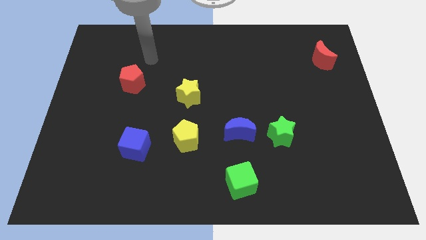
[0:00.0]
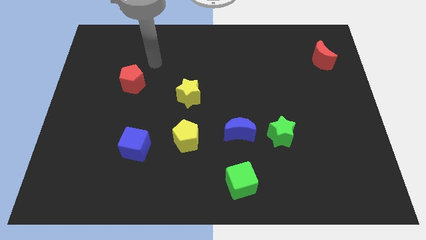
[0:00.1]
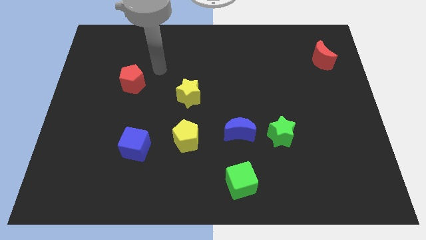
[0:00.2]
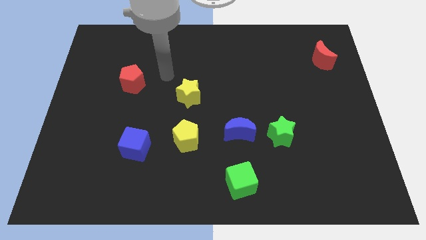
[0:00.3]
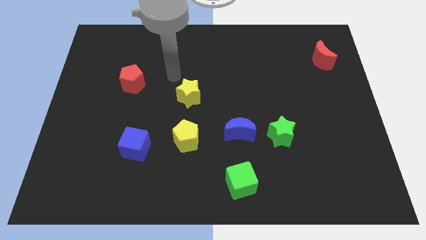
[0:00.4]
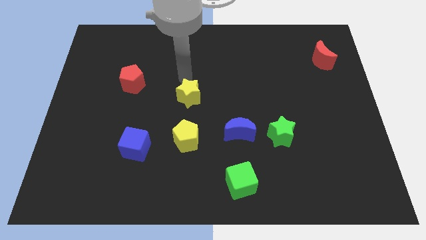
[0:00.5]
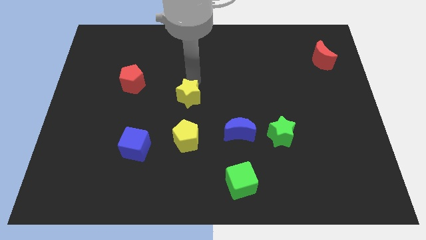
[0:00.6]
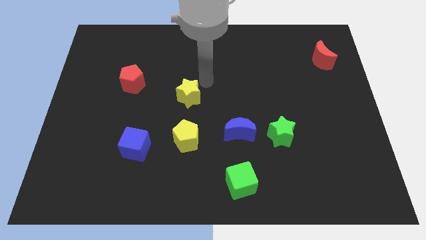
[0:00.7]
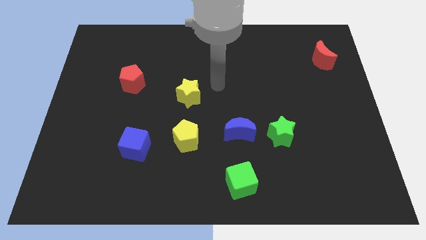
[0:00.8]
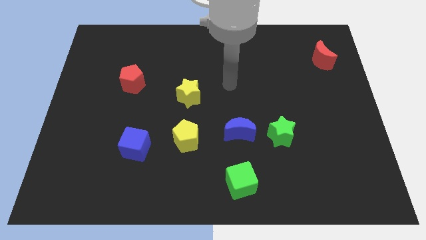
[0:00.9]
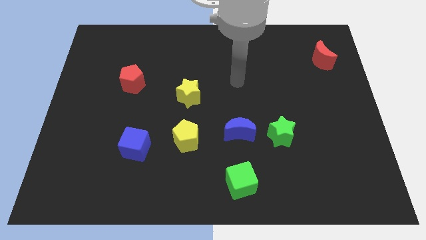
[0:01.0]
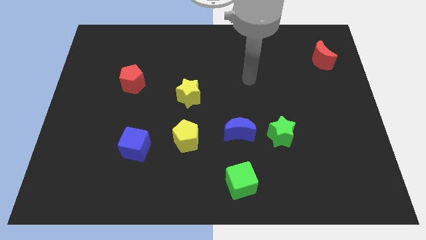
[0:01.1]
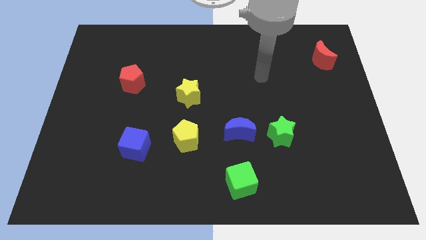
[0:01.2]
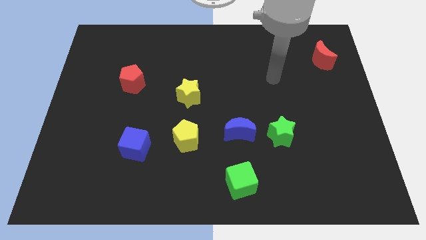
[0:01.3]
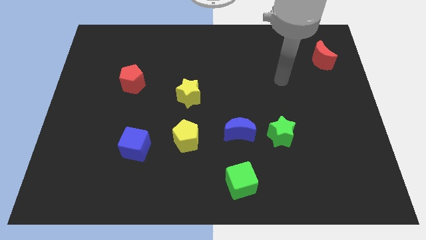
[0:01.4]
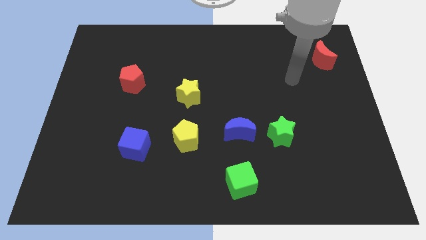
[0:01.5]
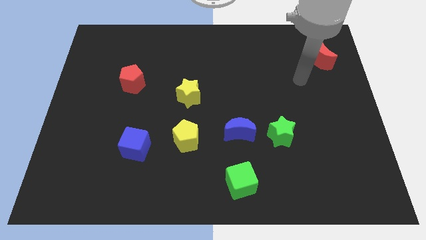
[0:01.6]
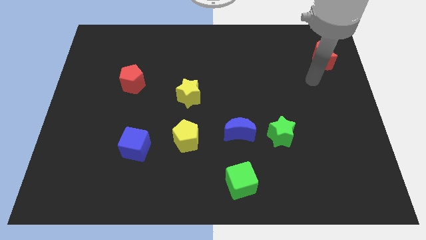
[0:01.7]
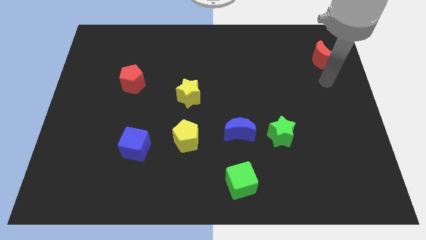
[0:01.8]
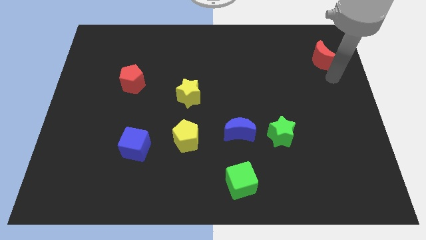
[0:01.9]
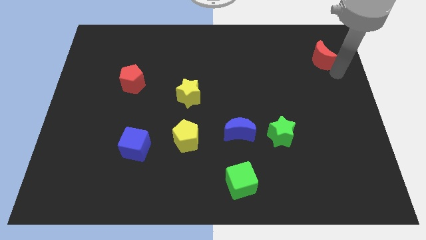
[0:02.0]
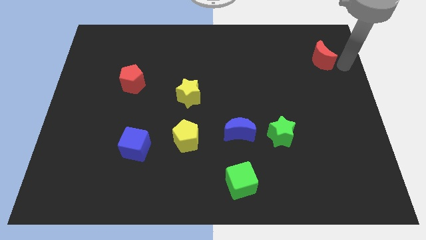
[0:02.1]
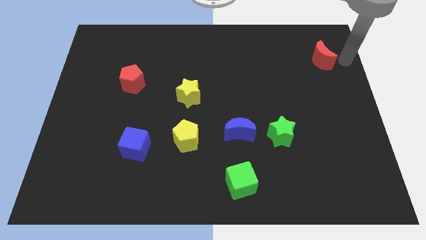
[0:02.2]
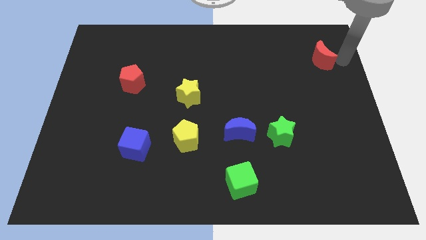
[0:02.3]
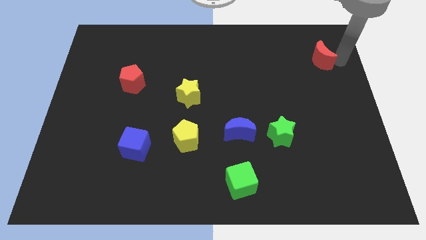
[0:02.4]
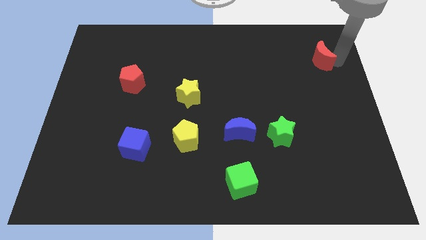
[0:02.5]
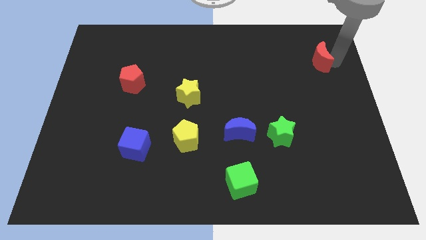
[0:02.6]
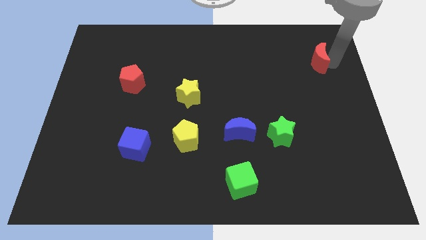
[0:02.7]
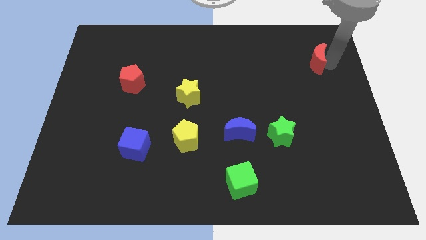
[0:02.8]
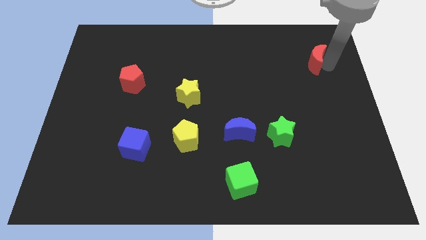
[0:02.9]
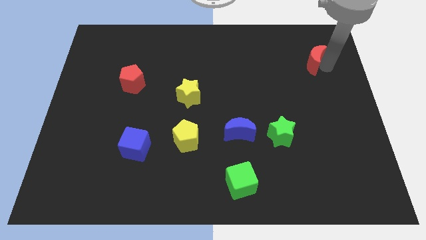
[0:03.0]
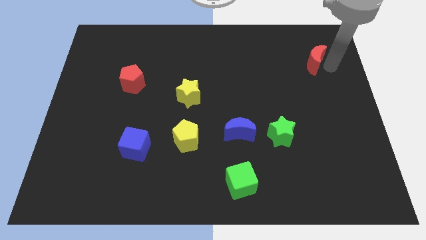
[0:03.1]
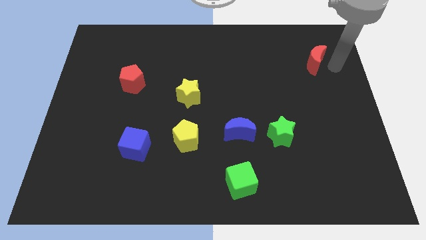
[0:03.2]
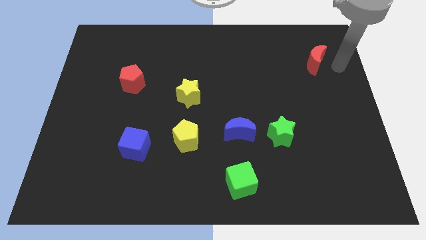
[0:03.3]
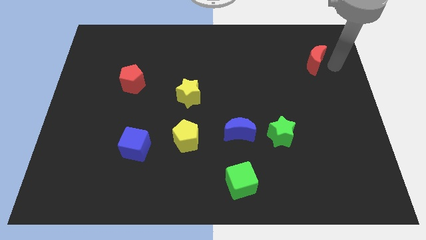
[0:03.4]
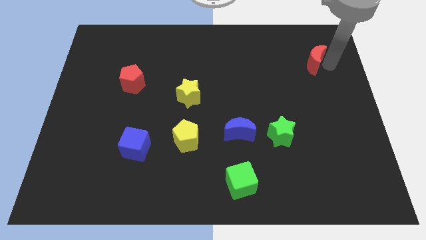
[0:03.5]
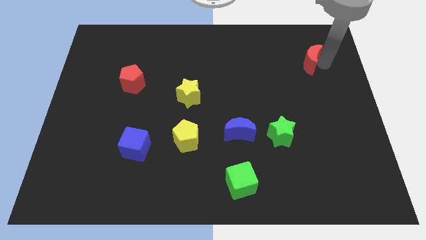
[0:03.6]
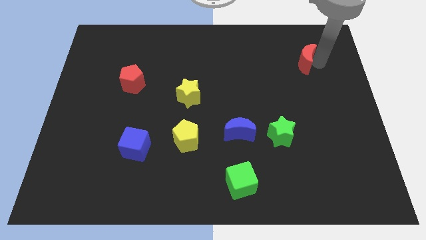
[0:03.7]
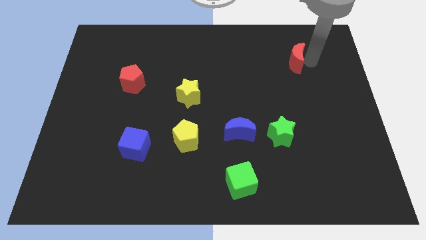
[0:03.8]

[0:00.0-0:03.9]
slightly slide the red moon to the left

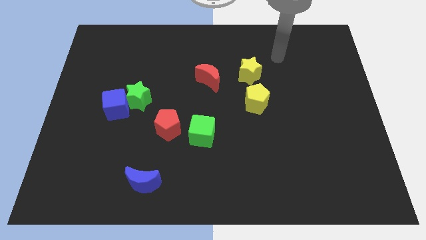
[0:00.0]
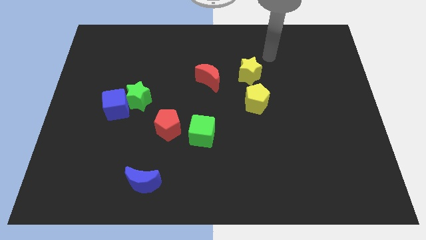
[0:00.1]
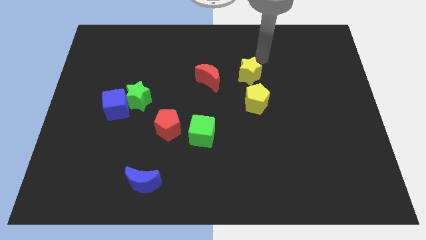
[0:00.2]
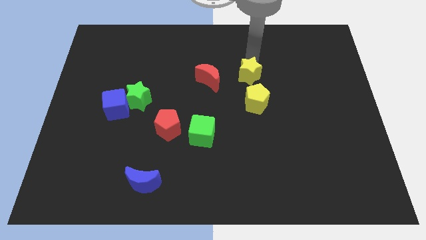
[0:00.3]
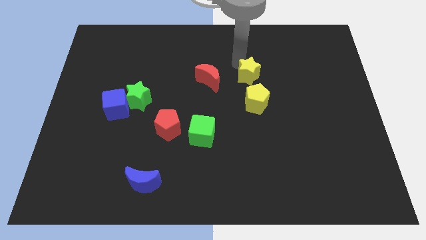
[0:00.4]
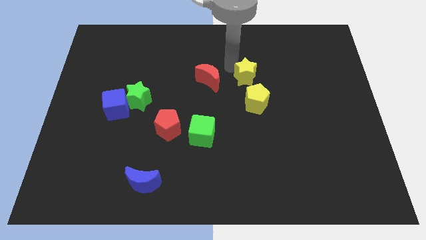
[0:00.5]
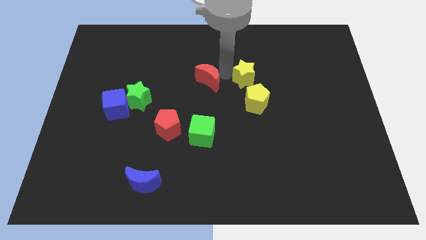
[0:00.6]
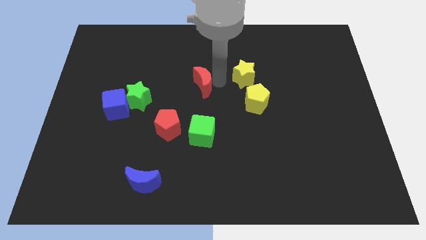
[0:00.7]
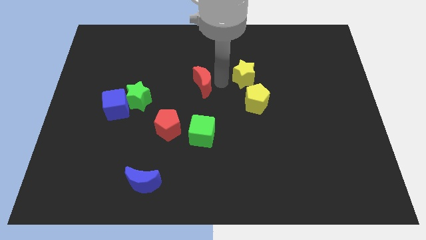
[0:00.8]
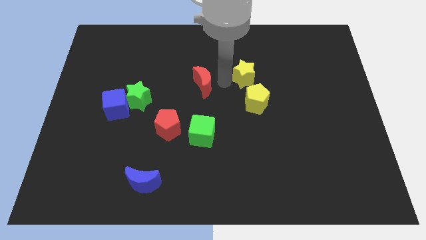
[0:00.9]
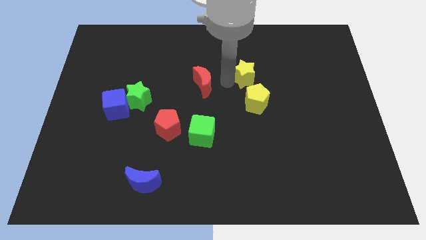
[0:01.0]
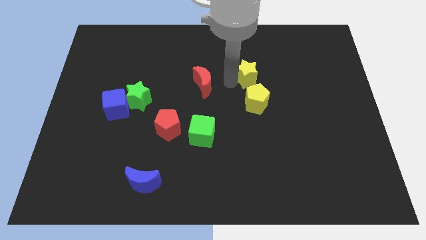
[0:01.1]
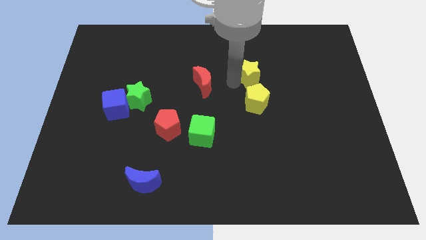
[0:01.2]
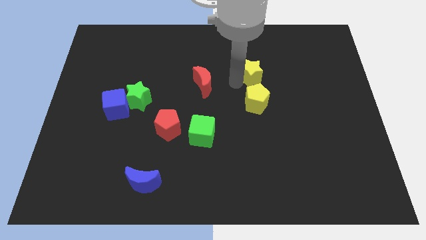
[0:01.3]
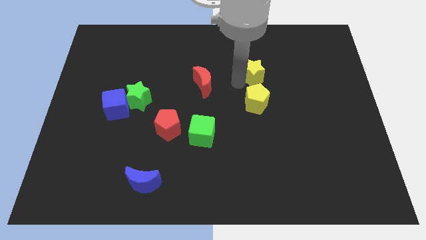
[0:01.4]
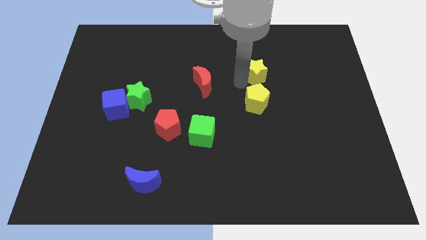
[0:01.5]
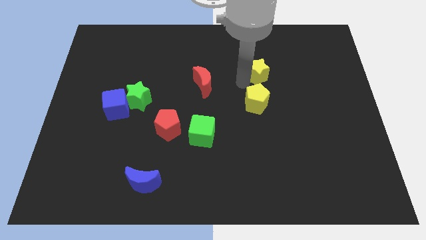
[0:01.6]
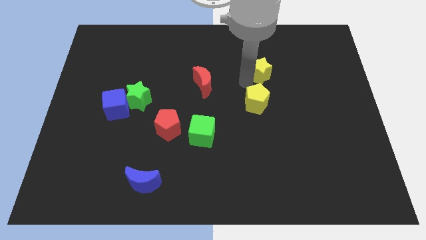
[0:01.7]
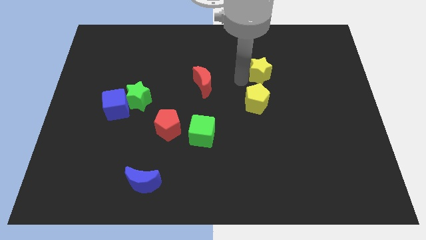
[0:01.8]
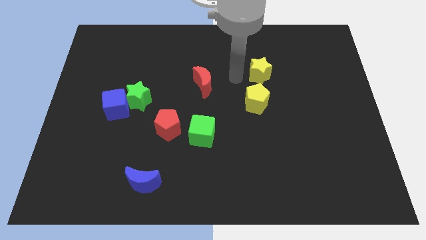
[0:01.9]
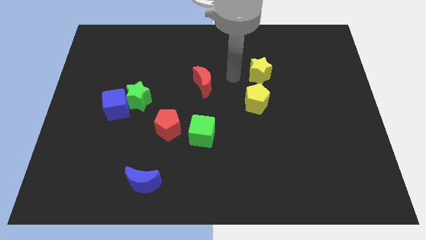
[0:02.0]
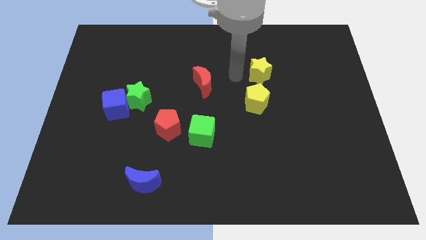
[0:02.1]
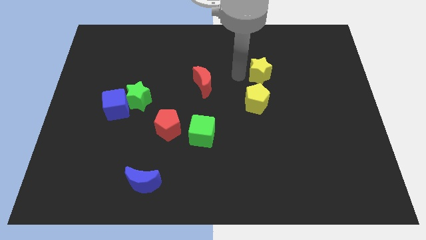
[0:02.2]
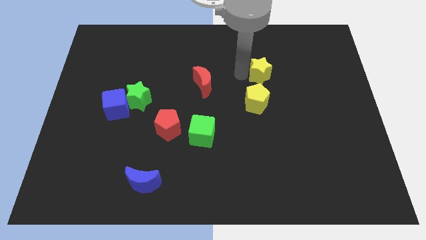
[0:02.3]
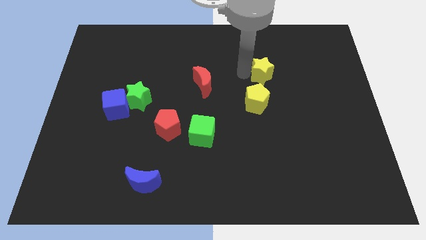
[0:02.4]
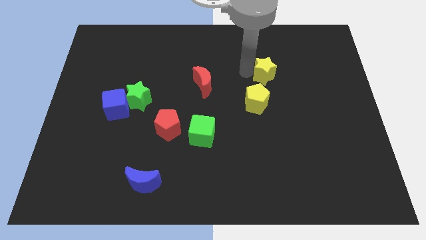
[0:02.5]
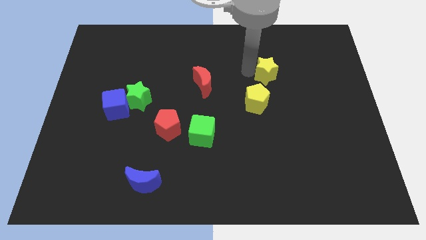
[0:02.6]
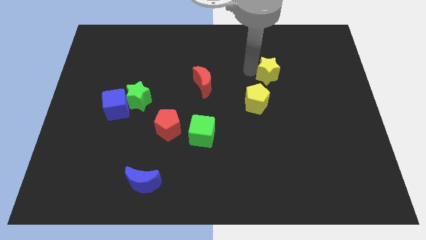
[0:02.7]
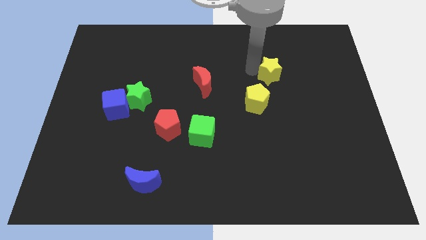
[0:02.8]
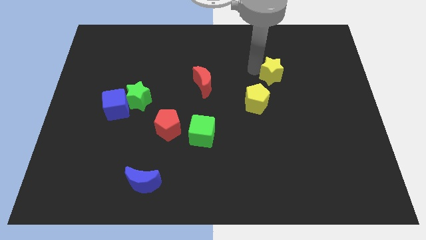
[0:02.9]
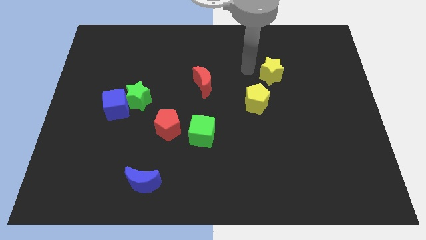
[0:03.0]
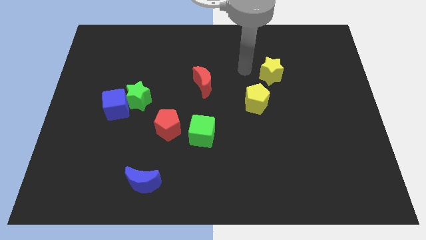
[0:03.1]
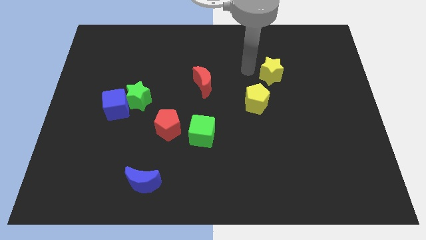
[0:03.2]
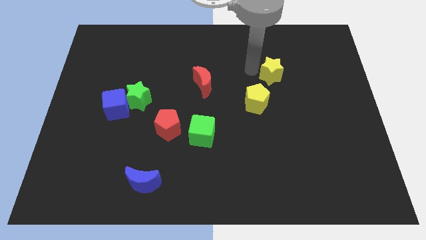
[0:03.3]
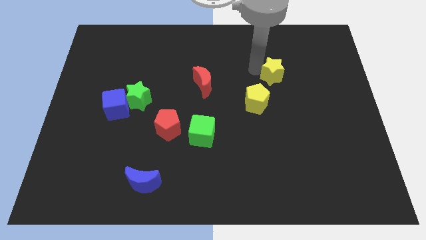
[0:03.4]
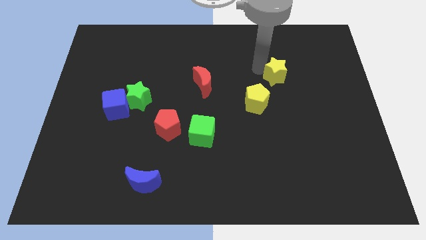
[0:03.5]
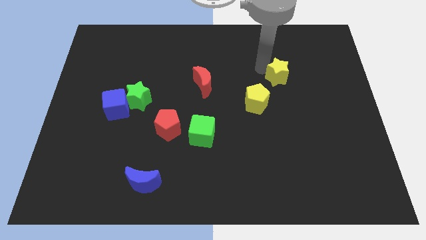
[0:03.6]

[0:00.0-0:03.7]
move the yellow star right somewhat

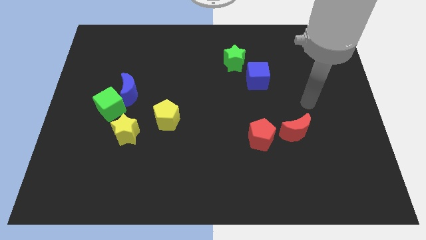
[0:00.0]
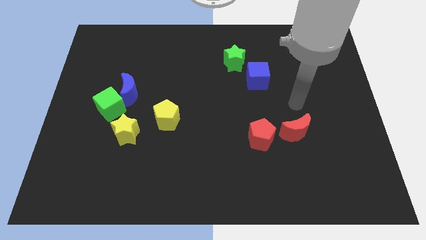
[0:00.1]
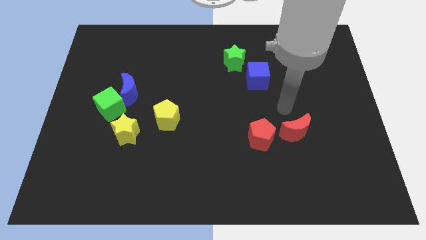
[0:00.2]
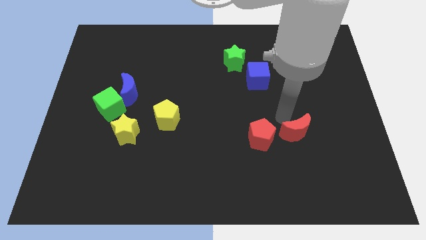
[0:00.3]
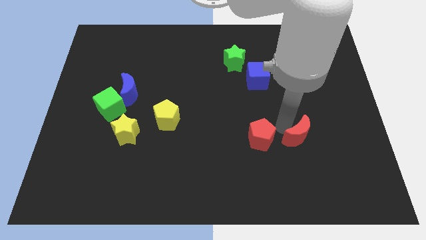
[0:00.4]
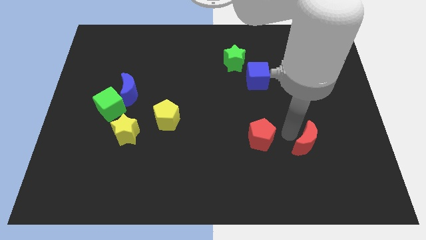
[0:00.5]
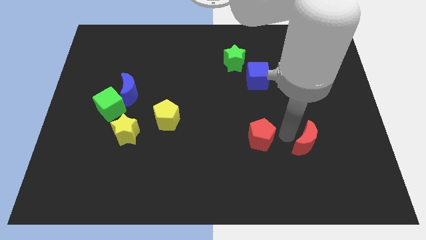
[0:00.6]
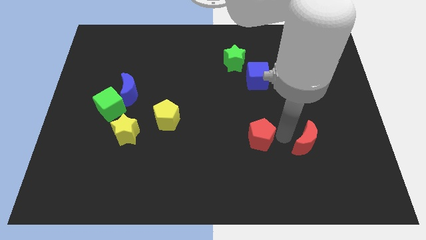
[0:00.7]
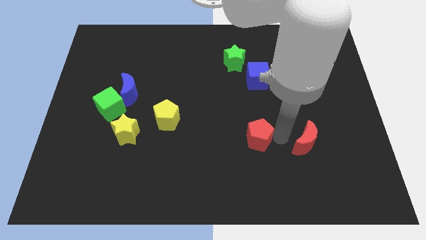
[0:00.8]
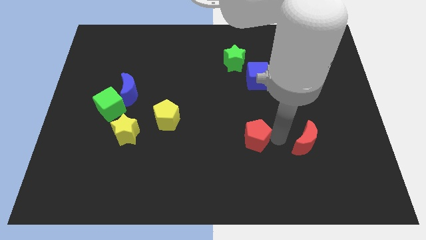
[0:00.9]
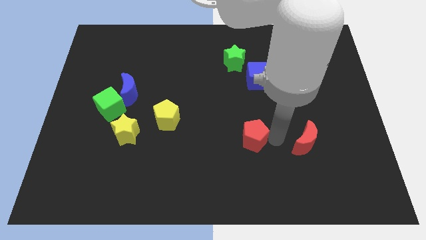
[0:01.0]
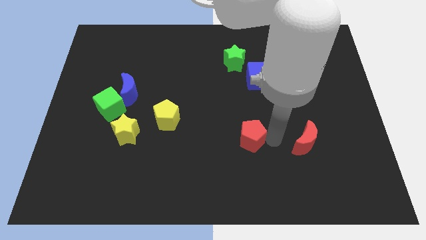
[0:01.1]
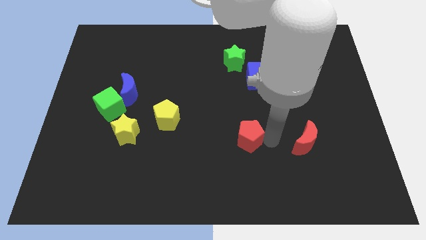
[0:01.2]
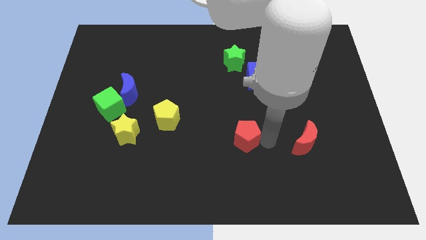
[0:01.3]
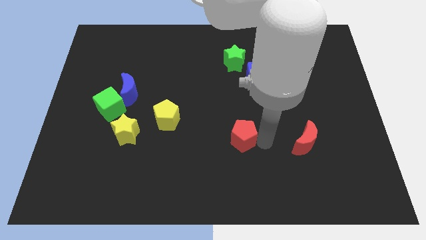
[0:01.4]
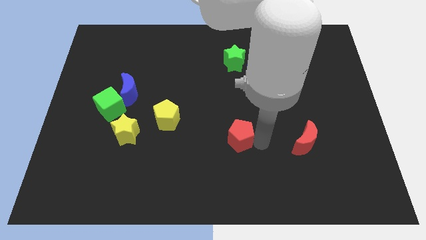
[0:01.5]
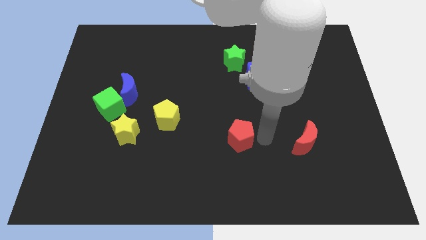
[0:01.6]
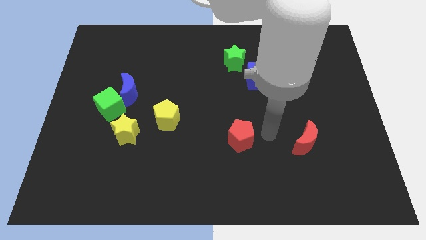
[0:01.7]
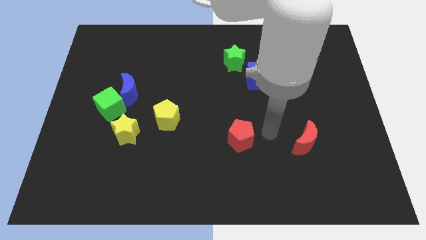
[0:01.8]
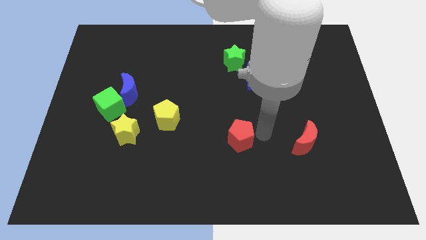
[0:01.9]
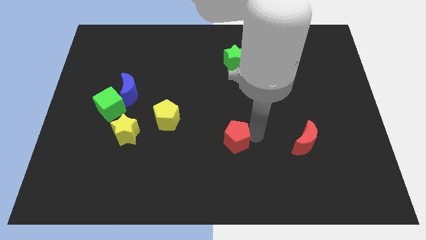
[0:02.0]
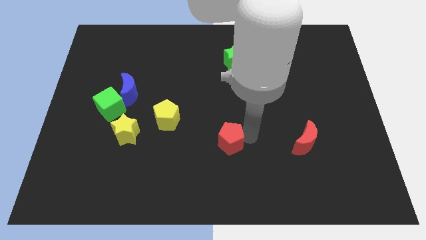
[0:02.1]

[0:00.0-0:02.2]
slightly slide the red pentagon left
